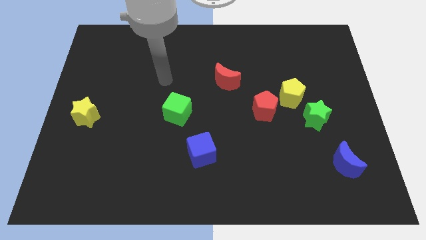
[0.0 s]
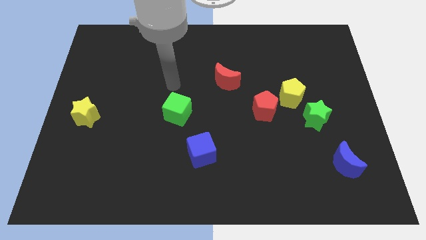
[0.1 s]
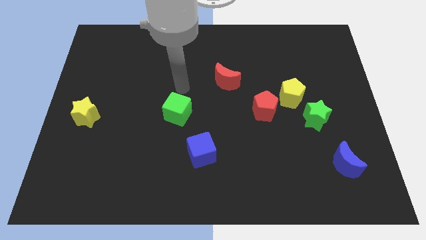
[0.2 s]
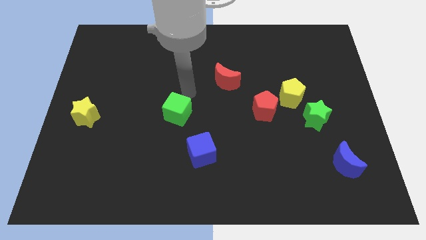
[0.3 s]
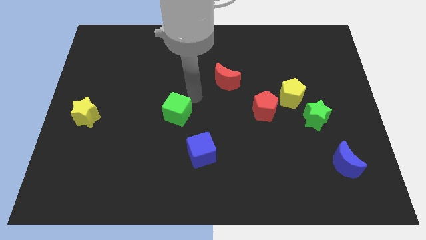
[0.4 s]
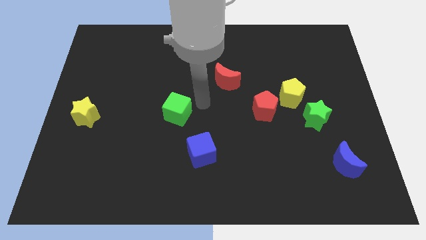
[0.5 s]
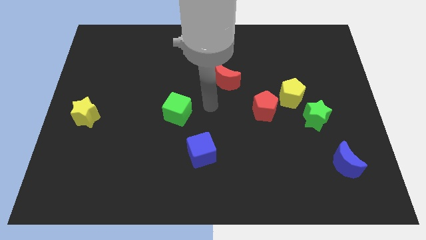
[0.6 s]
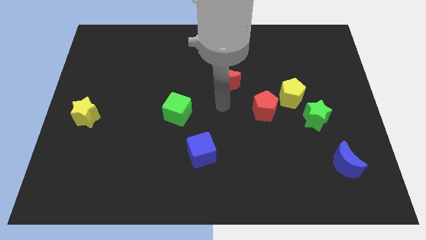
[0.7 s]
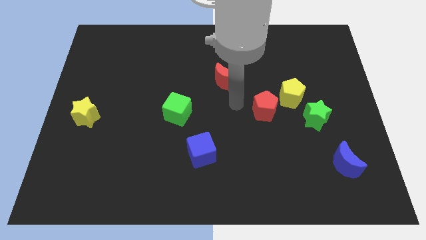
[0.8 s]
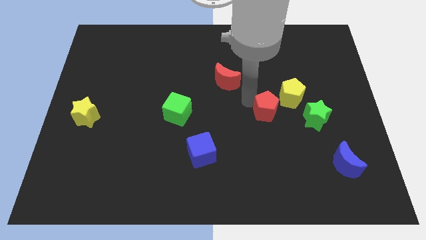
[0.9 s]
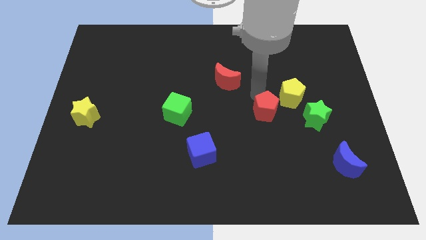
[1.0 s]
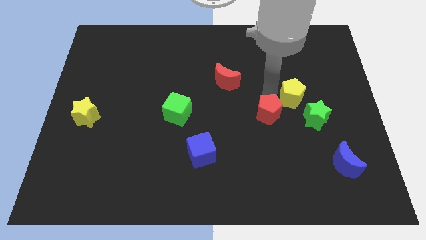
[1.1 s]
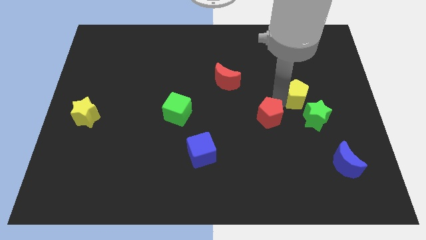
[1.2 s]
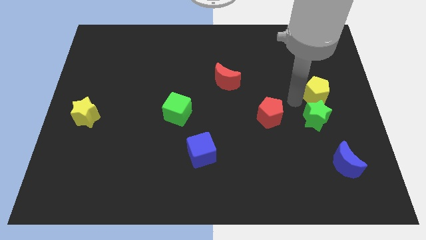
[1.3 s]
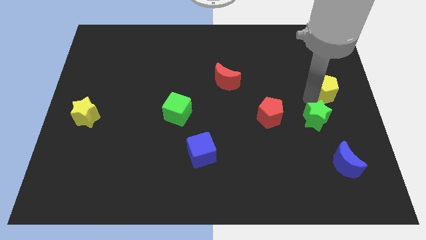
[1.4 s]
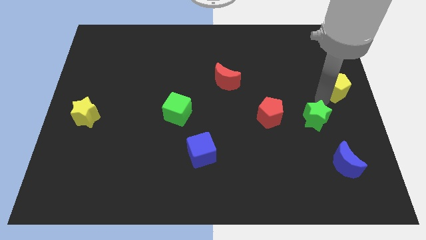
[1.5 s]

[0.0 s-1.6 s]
pull the green star apart from the yellow pentagon

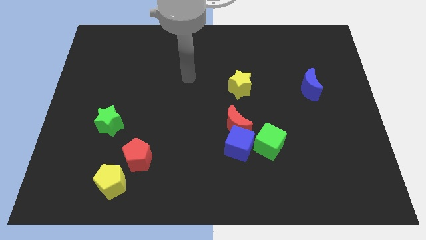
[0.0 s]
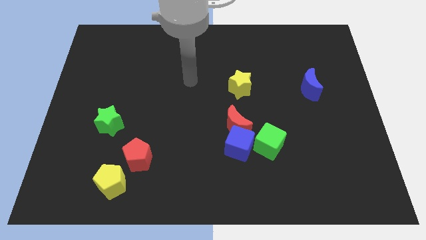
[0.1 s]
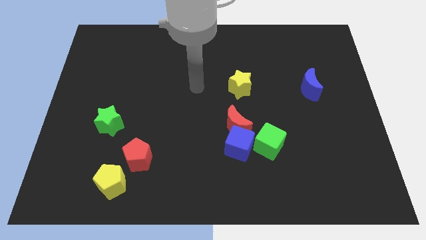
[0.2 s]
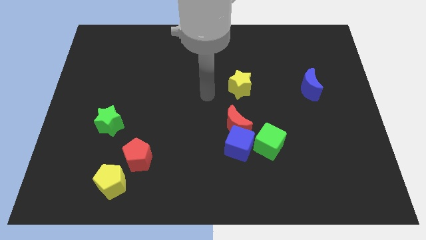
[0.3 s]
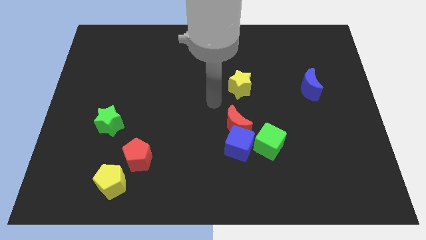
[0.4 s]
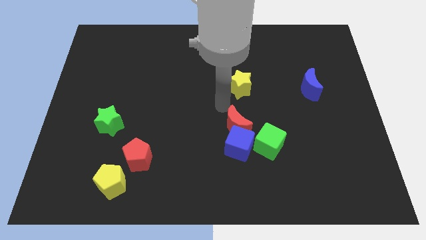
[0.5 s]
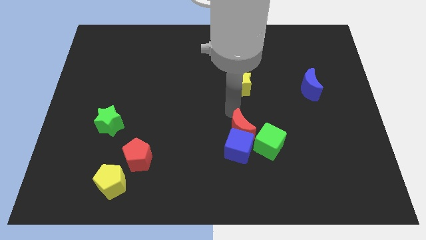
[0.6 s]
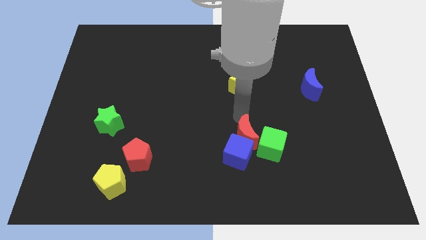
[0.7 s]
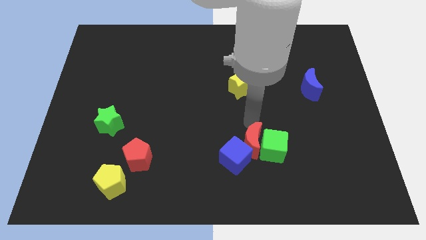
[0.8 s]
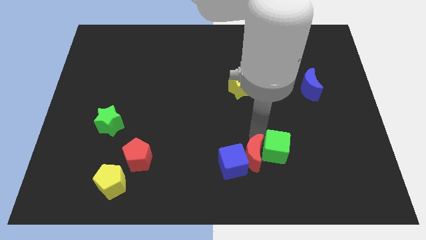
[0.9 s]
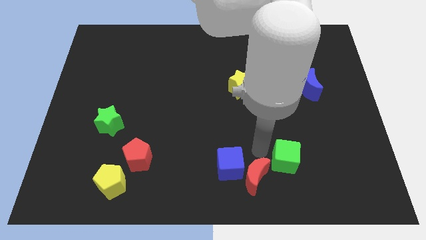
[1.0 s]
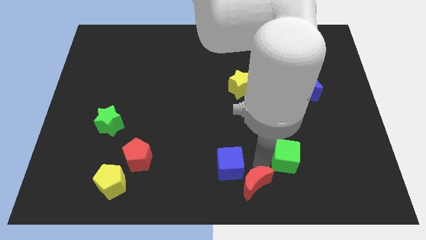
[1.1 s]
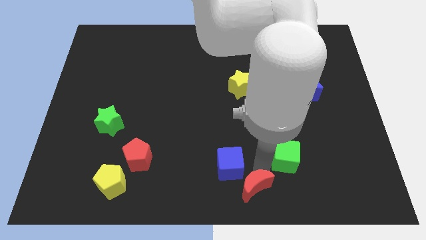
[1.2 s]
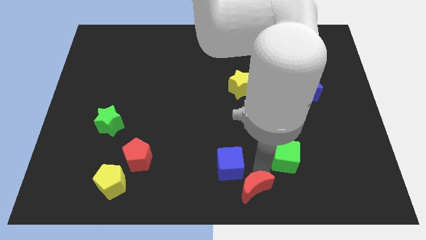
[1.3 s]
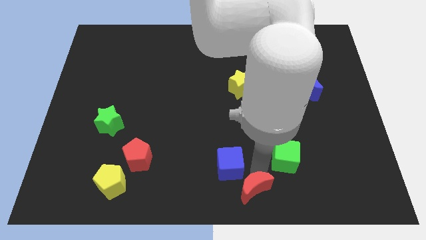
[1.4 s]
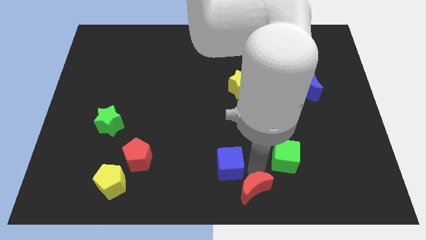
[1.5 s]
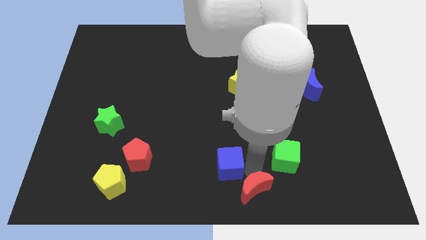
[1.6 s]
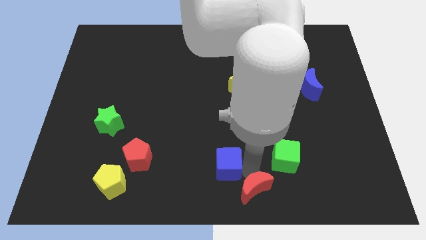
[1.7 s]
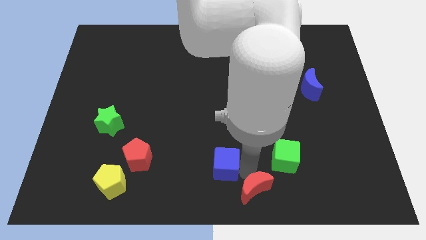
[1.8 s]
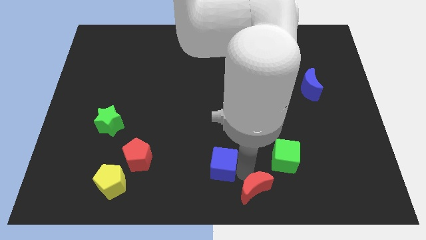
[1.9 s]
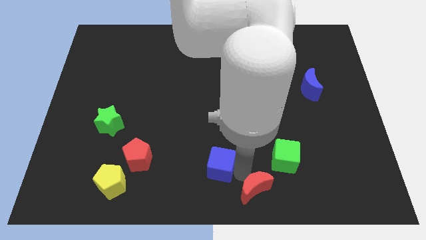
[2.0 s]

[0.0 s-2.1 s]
move the blue cube away from the red moon and green cube

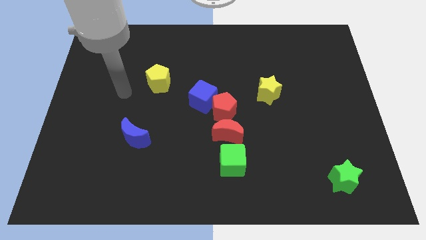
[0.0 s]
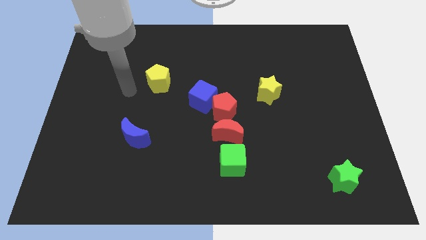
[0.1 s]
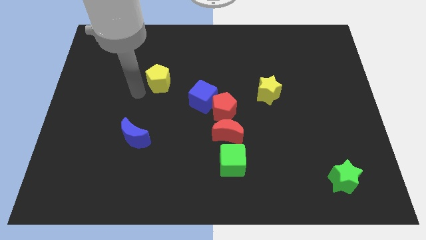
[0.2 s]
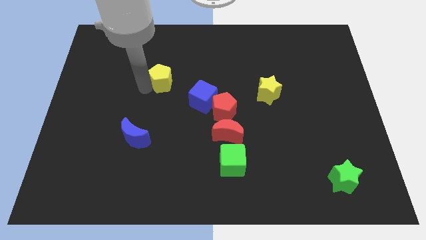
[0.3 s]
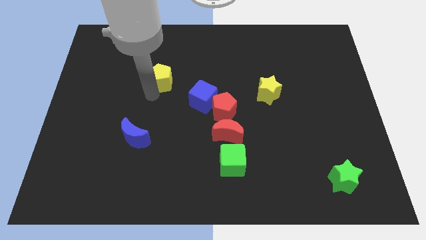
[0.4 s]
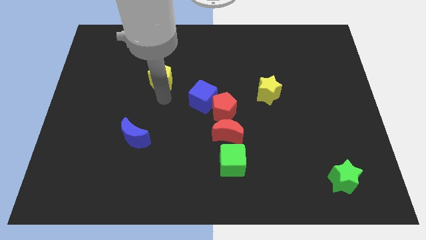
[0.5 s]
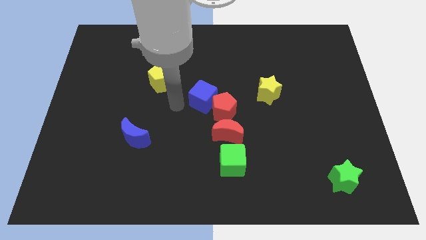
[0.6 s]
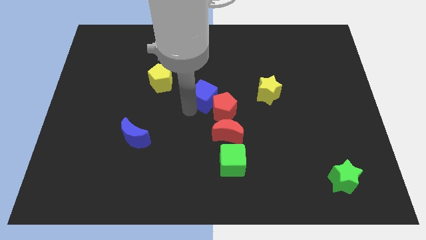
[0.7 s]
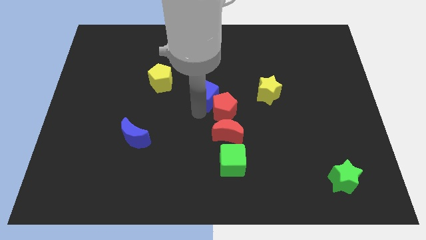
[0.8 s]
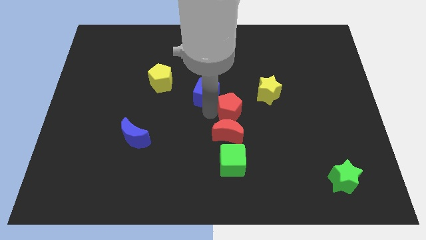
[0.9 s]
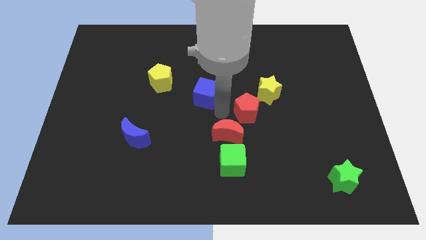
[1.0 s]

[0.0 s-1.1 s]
pull the blue cube apart from the red pentagon

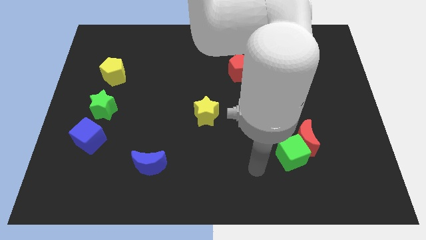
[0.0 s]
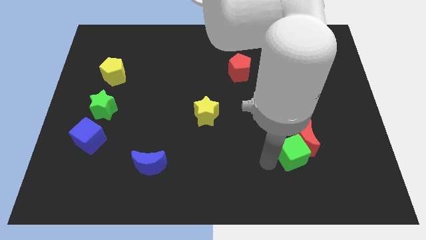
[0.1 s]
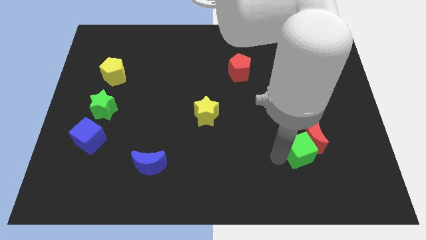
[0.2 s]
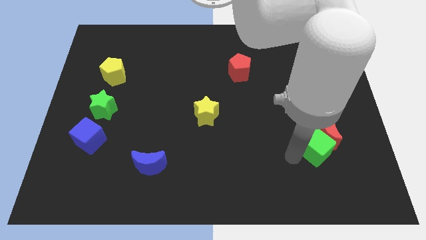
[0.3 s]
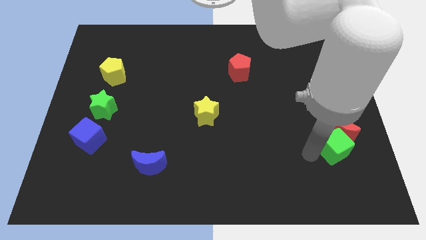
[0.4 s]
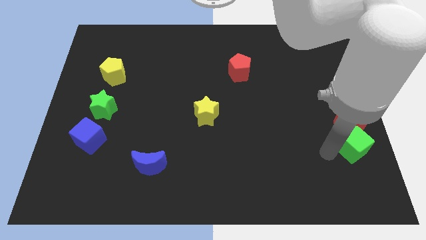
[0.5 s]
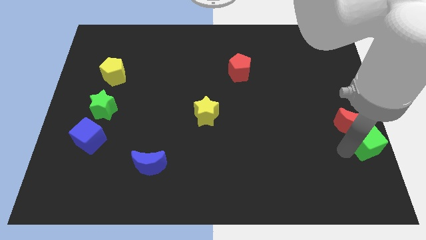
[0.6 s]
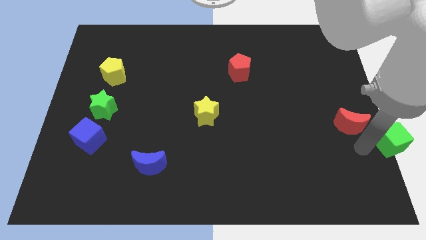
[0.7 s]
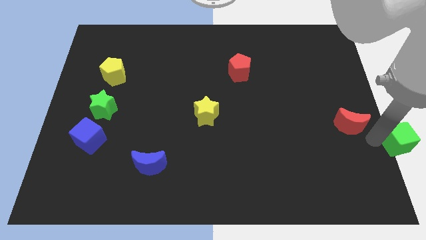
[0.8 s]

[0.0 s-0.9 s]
move the red moon away from the green cube

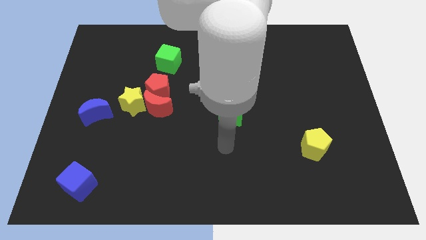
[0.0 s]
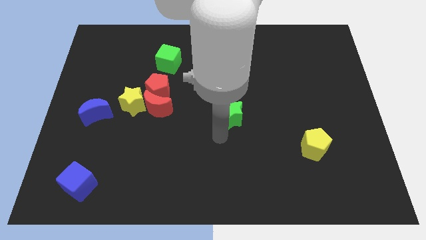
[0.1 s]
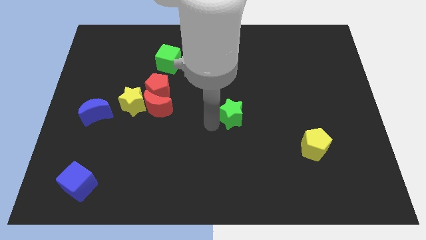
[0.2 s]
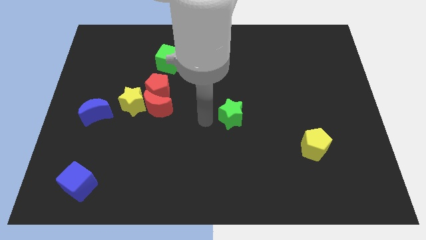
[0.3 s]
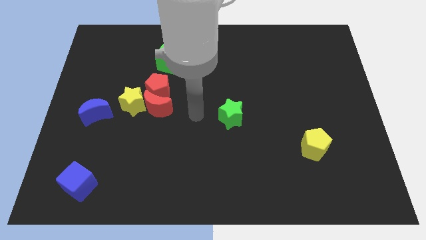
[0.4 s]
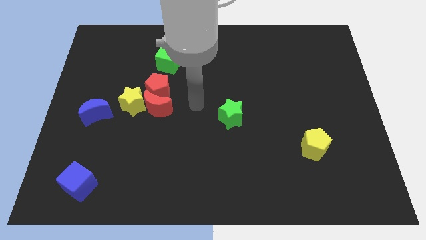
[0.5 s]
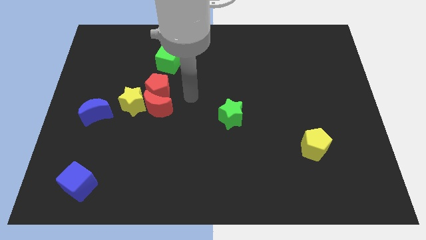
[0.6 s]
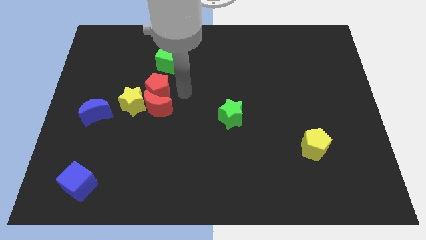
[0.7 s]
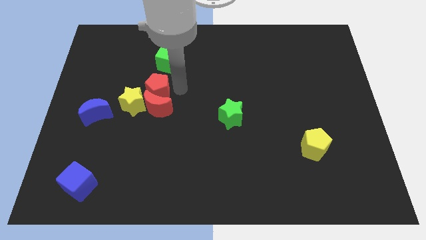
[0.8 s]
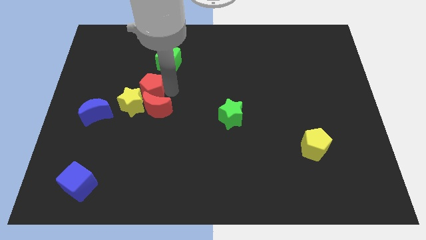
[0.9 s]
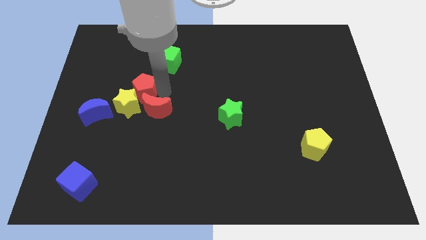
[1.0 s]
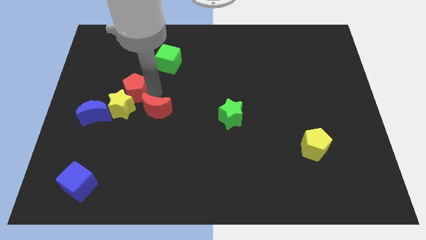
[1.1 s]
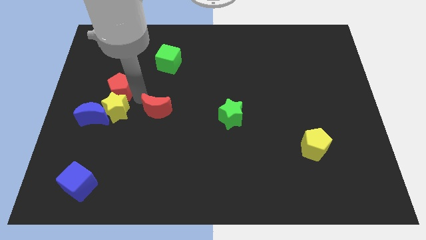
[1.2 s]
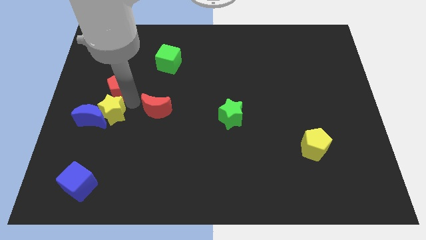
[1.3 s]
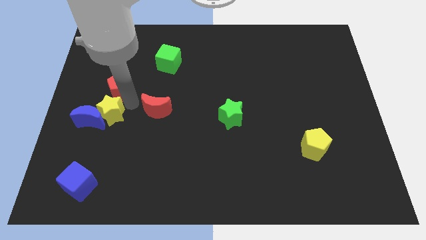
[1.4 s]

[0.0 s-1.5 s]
move the red moon away from the red pentagon and yellow star

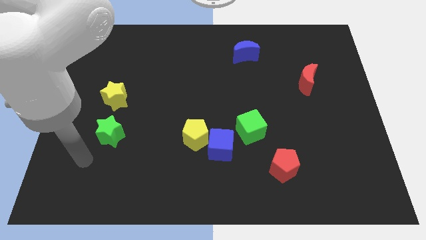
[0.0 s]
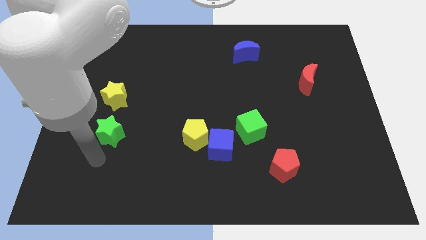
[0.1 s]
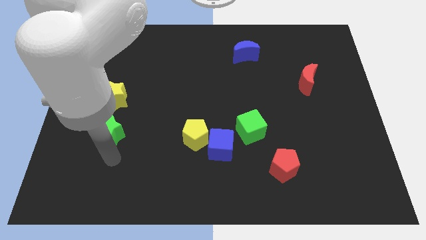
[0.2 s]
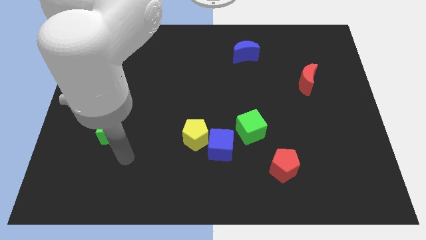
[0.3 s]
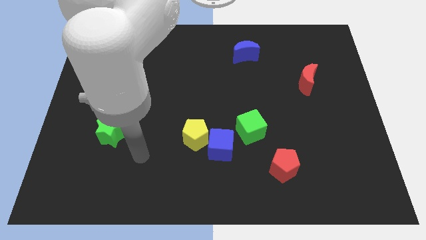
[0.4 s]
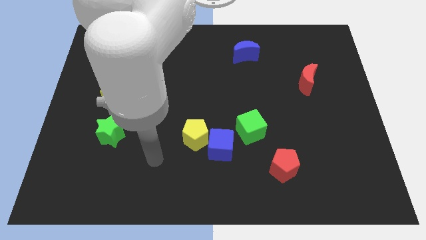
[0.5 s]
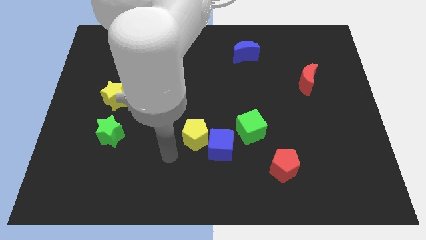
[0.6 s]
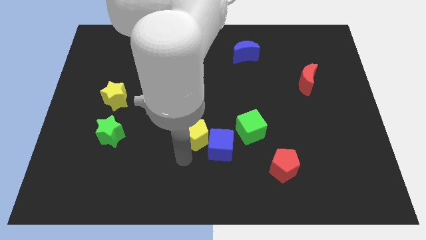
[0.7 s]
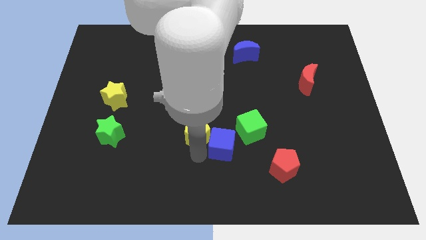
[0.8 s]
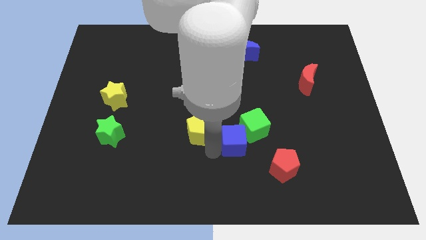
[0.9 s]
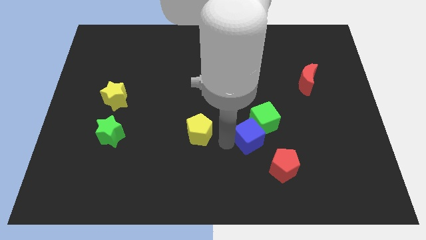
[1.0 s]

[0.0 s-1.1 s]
separate the yellow pentagon from the blue cube

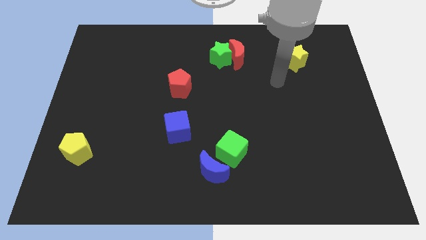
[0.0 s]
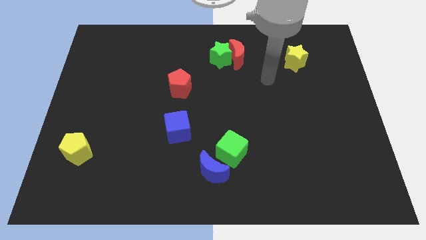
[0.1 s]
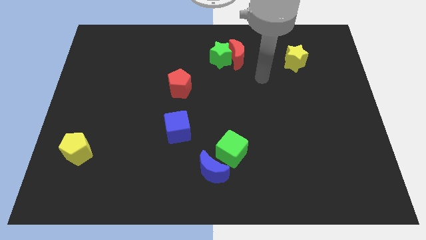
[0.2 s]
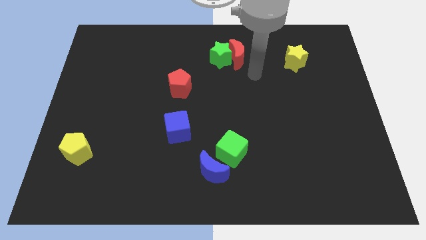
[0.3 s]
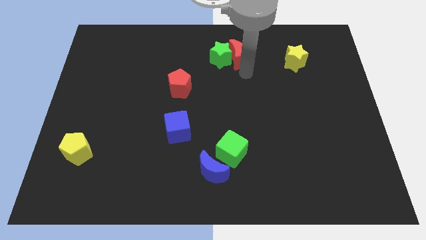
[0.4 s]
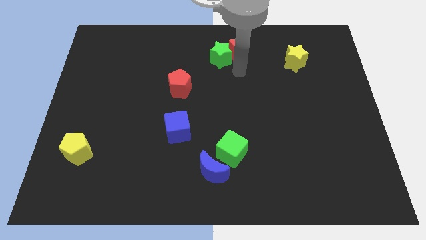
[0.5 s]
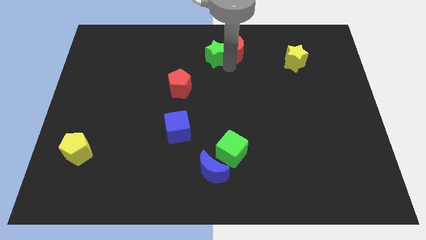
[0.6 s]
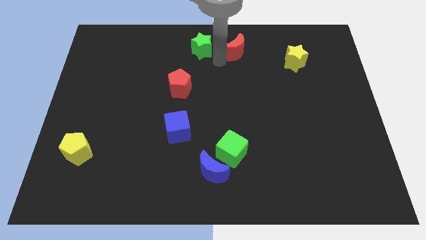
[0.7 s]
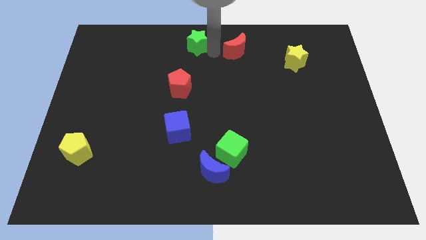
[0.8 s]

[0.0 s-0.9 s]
move the red moon away from the green star
